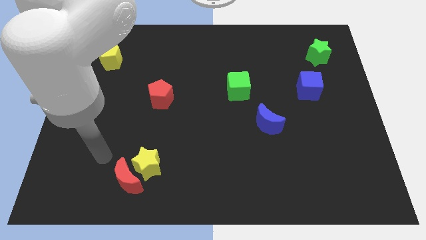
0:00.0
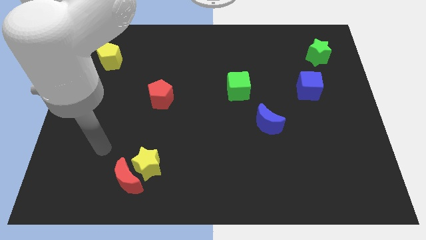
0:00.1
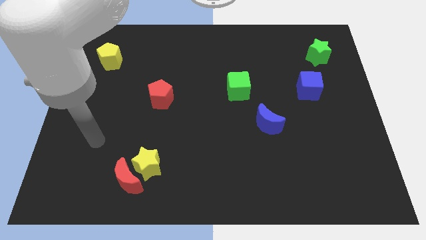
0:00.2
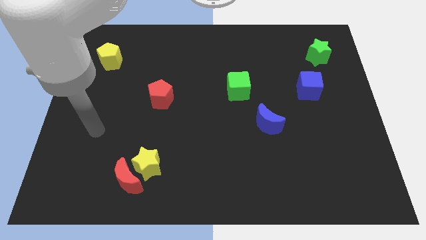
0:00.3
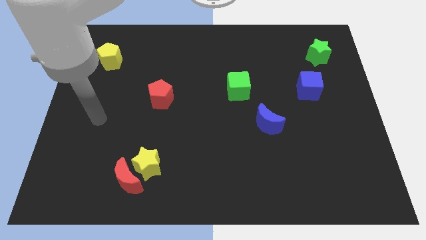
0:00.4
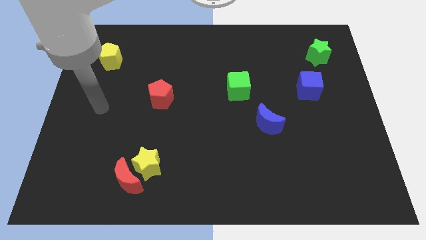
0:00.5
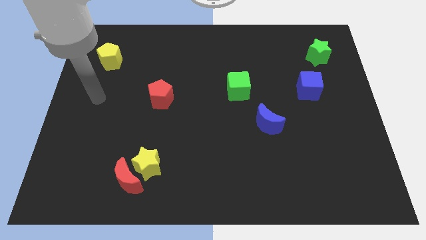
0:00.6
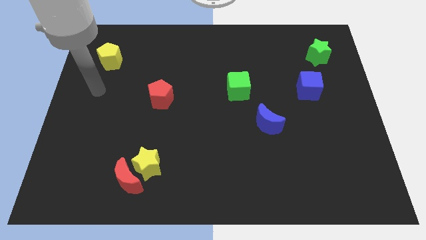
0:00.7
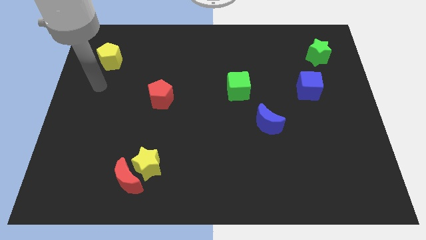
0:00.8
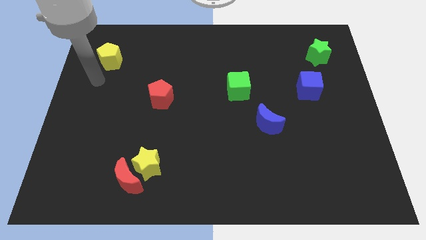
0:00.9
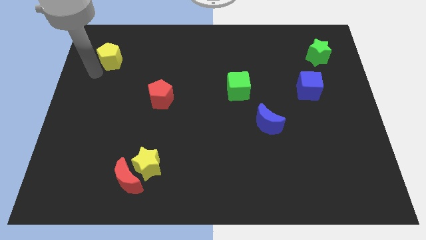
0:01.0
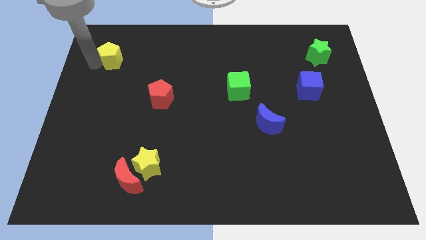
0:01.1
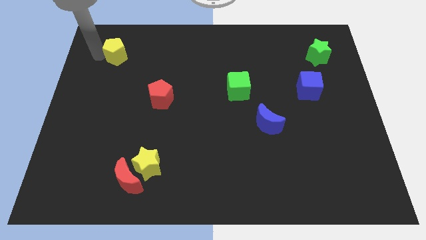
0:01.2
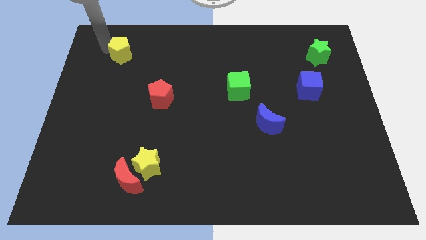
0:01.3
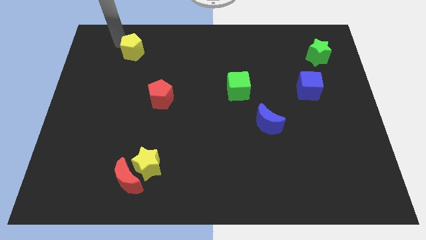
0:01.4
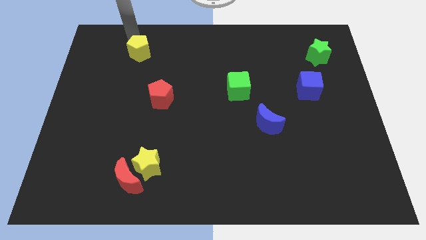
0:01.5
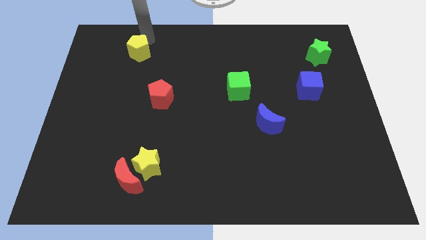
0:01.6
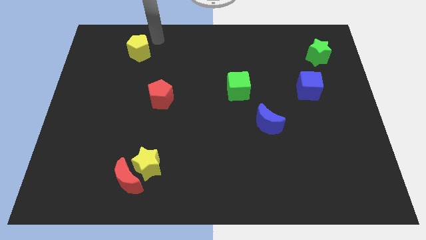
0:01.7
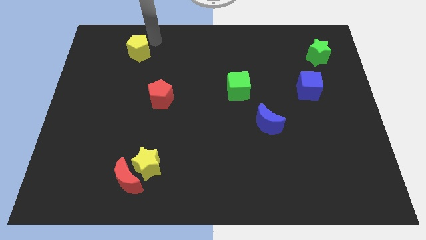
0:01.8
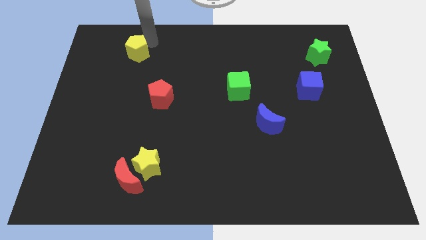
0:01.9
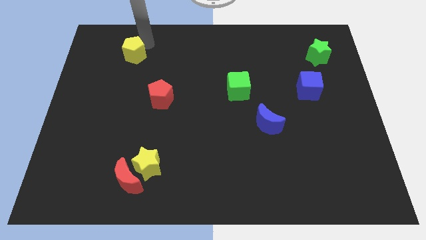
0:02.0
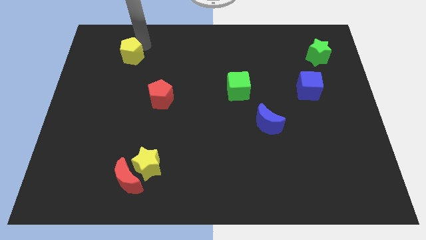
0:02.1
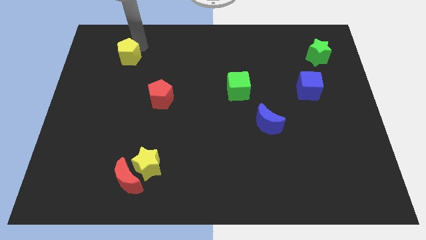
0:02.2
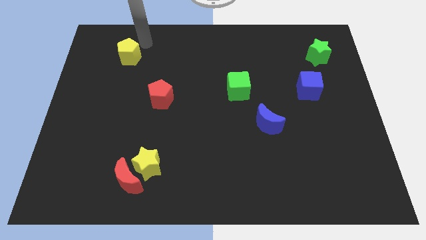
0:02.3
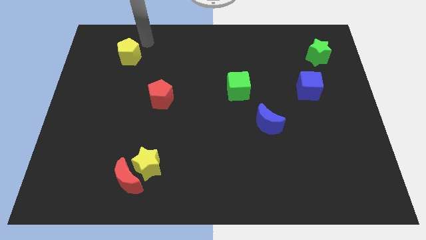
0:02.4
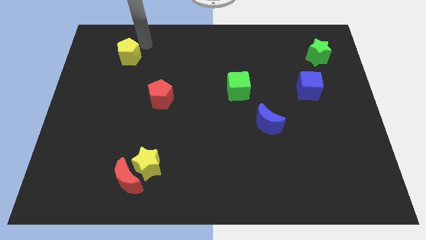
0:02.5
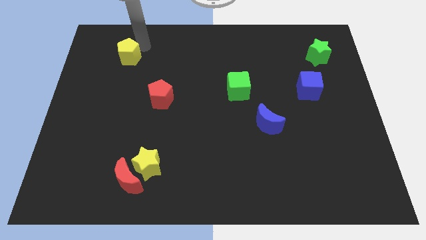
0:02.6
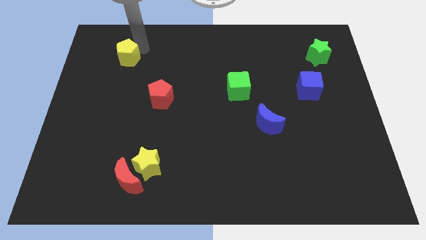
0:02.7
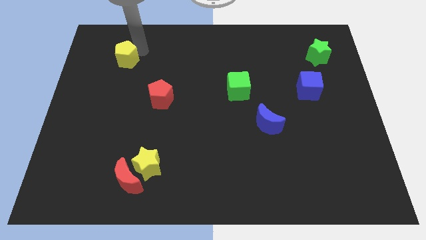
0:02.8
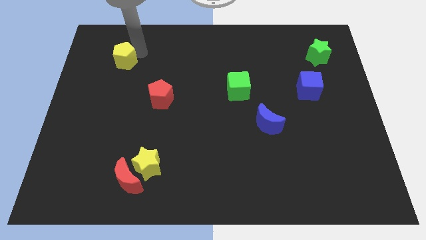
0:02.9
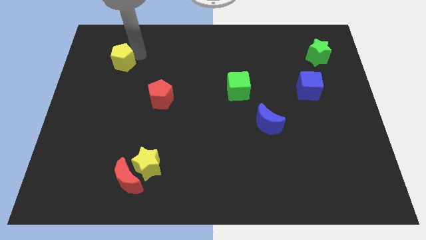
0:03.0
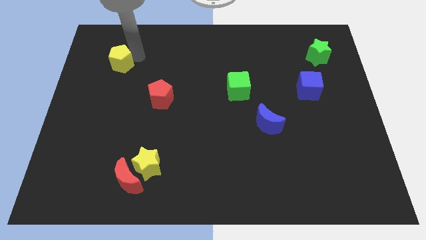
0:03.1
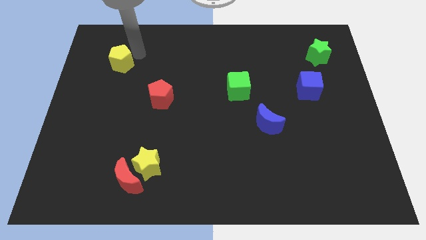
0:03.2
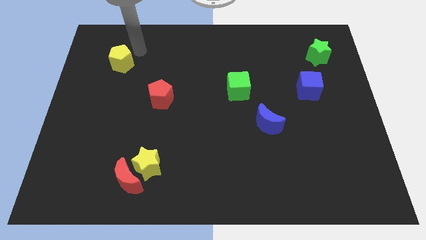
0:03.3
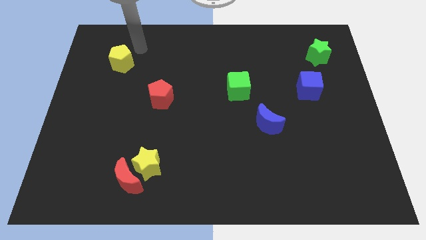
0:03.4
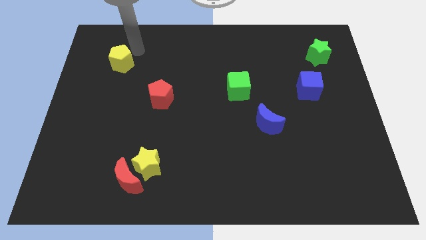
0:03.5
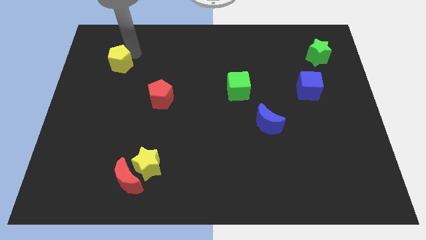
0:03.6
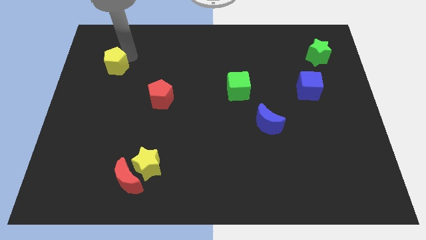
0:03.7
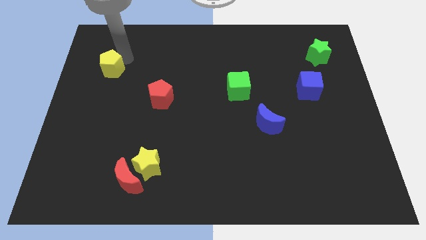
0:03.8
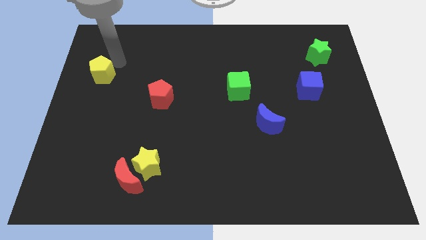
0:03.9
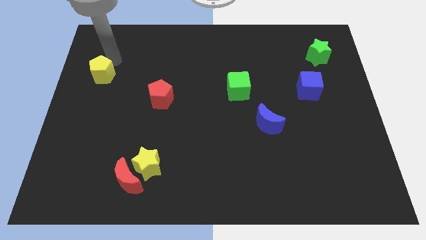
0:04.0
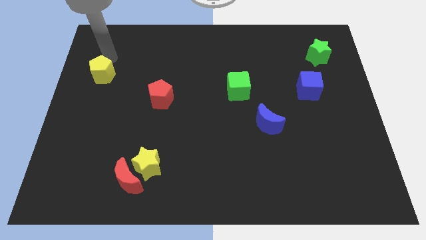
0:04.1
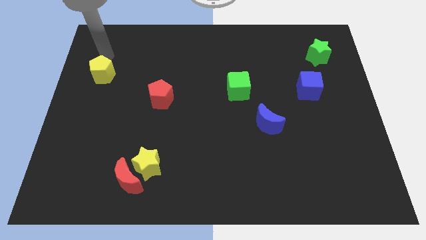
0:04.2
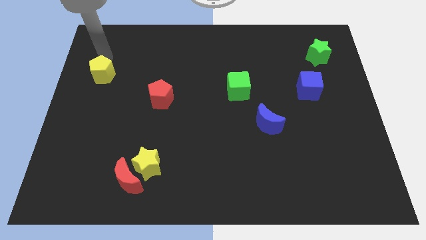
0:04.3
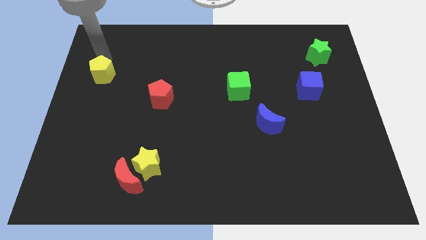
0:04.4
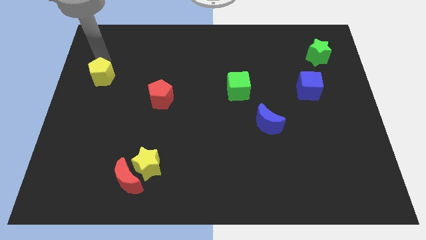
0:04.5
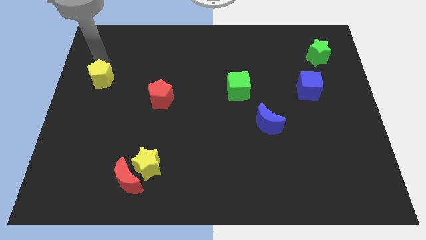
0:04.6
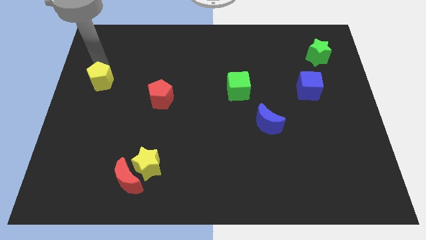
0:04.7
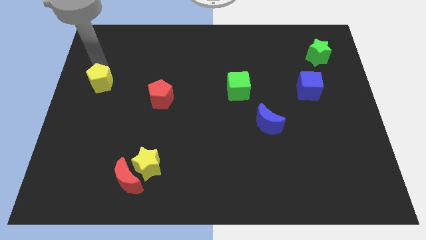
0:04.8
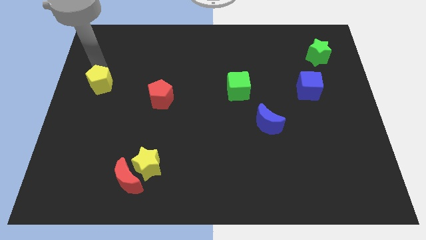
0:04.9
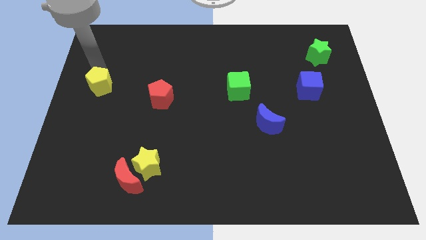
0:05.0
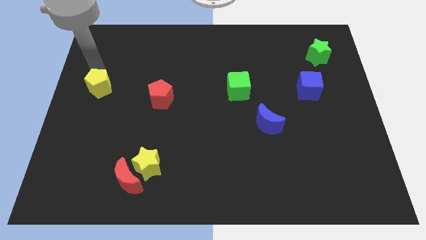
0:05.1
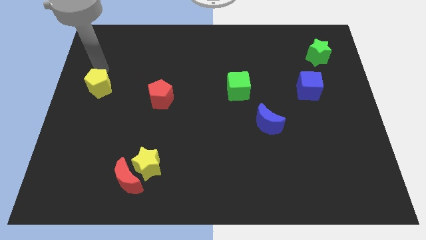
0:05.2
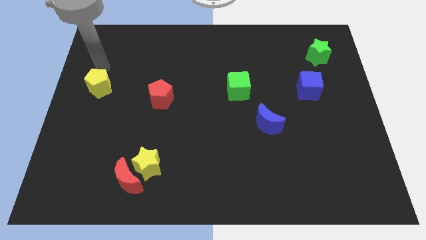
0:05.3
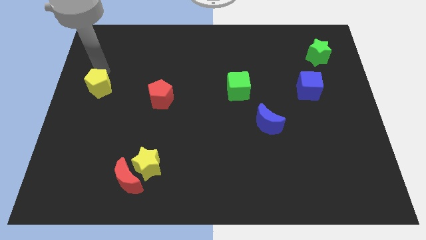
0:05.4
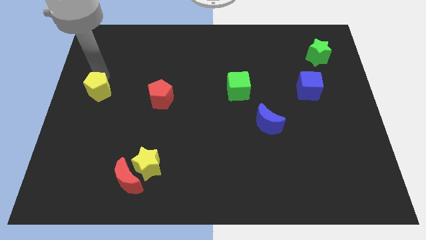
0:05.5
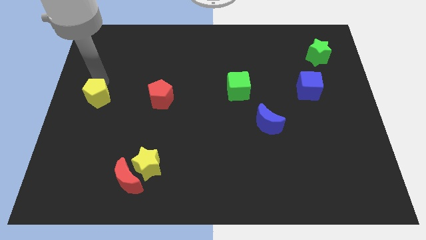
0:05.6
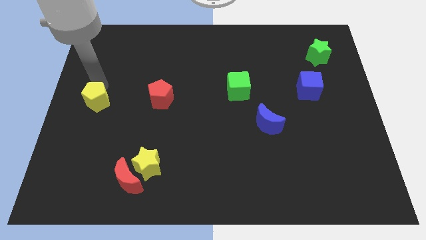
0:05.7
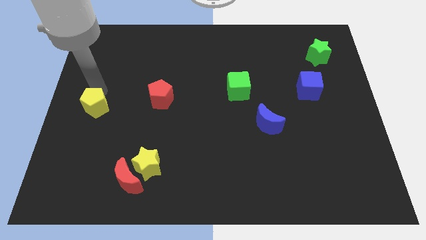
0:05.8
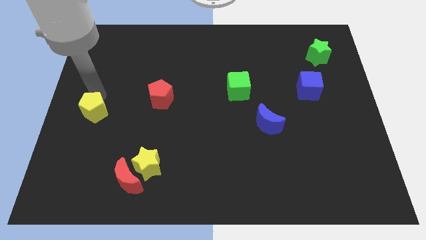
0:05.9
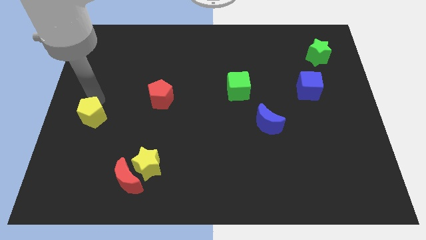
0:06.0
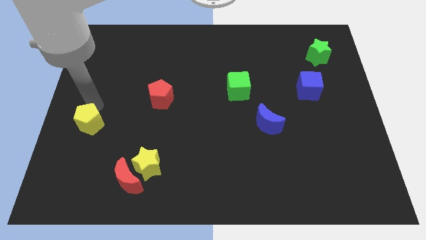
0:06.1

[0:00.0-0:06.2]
move the yellow pentagon down

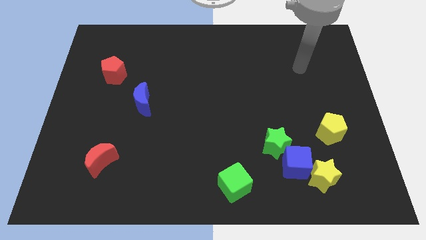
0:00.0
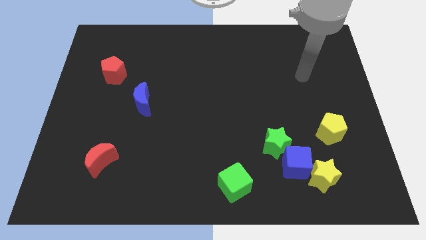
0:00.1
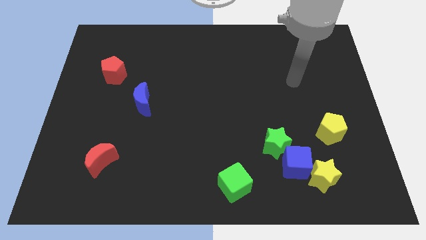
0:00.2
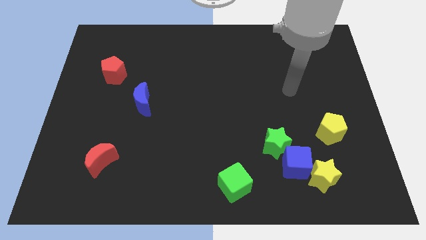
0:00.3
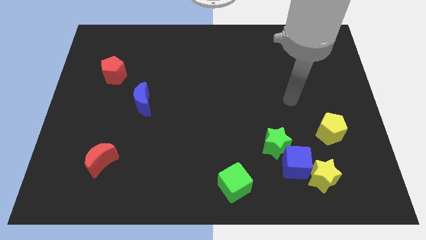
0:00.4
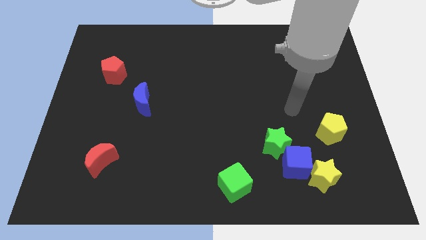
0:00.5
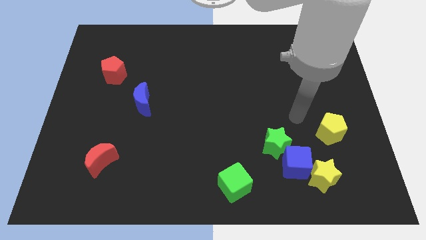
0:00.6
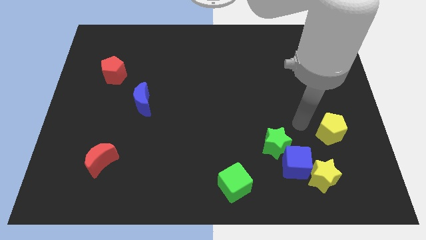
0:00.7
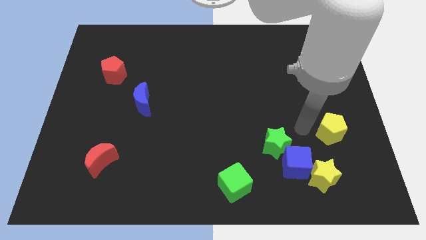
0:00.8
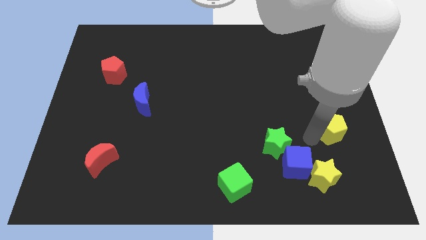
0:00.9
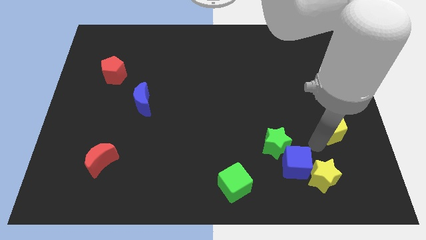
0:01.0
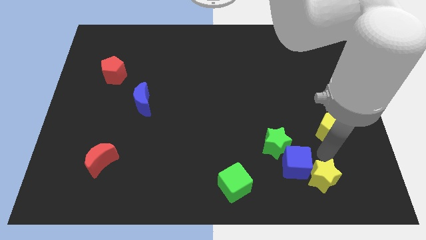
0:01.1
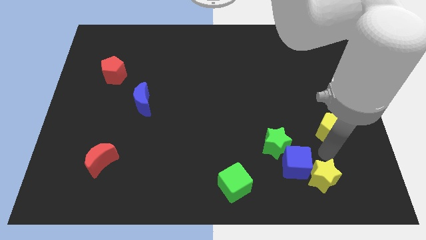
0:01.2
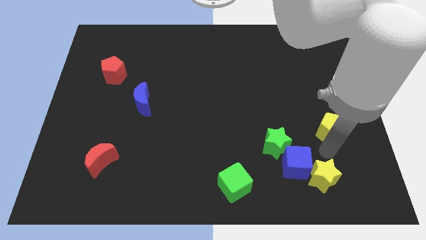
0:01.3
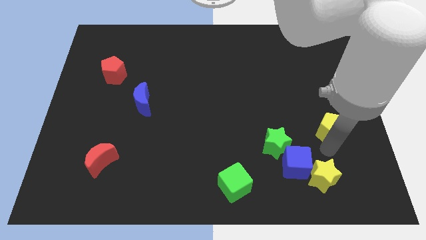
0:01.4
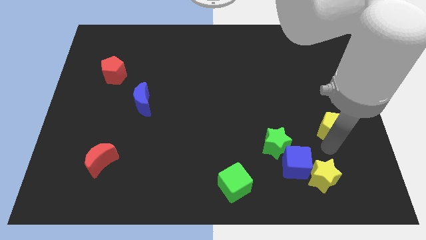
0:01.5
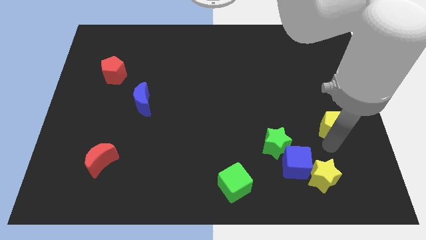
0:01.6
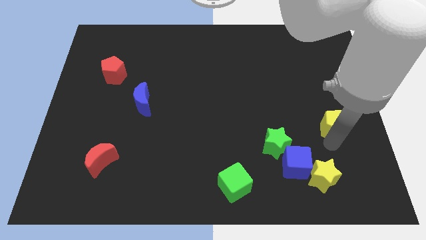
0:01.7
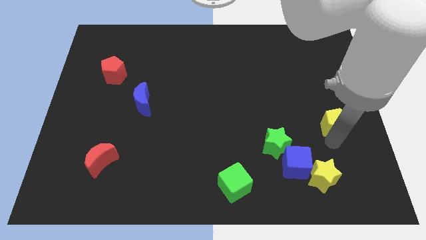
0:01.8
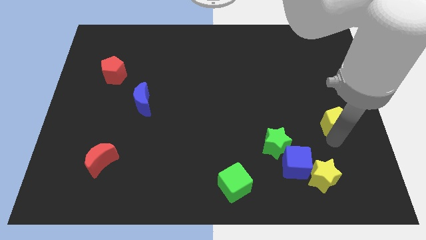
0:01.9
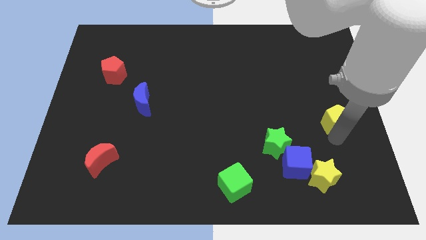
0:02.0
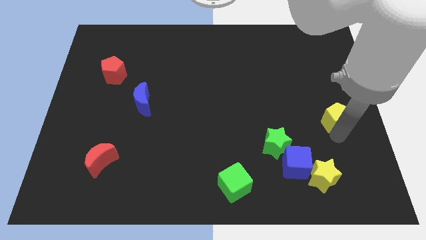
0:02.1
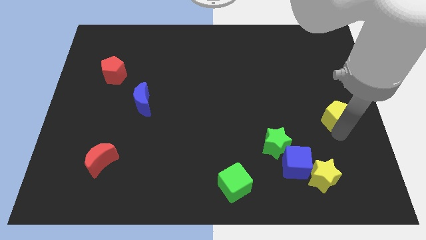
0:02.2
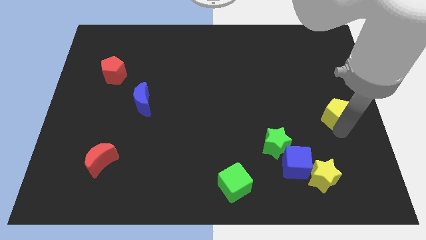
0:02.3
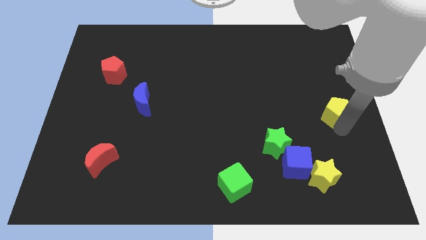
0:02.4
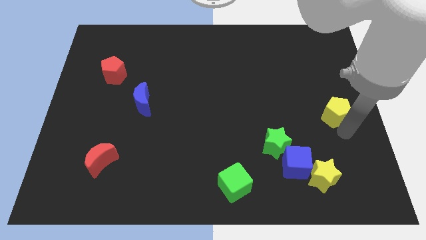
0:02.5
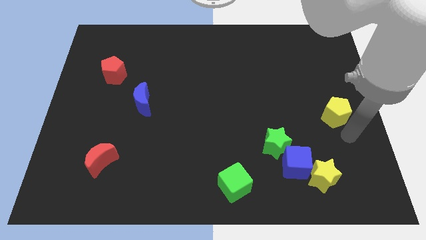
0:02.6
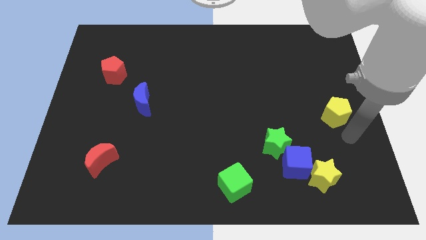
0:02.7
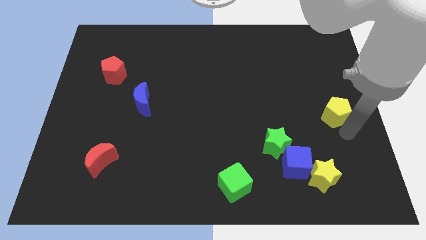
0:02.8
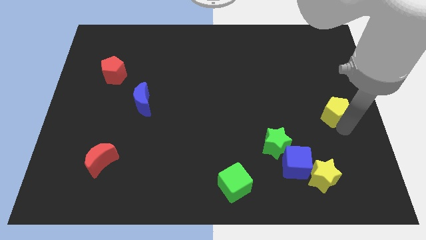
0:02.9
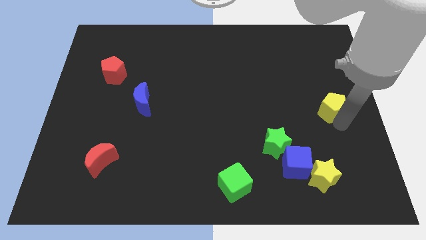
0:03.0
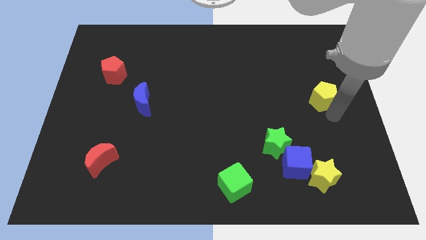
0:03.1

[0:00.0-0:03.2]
slide the yellow pentagon up a little
